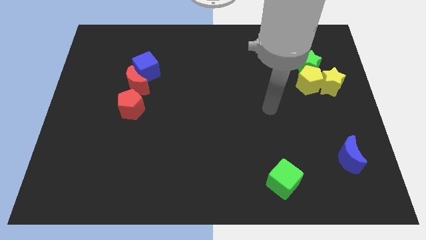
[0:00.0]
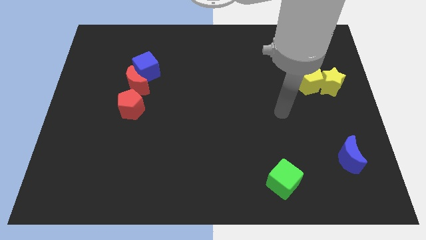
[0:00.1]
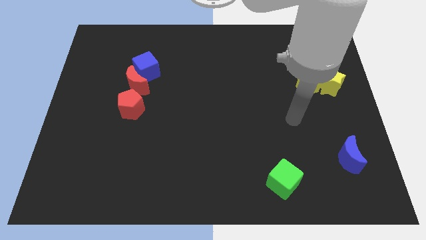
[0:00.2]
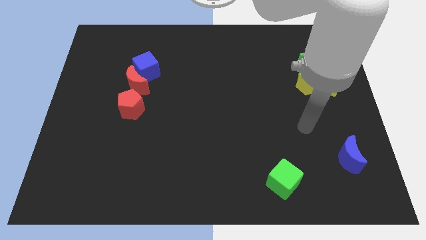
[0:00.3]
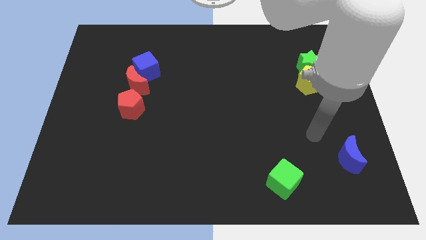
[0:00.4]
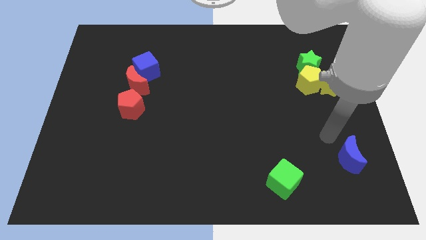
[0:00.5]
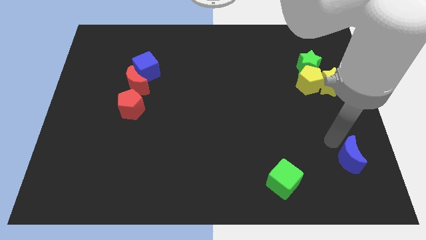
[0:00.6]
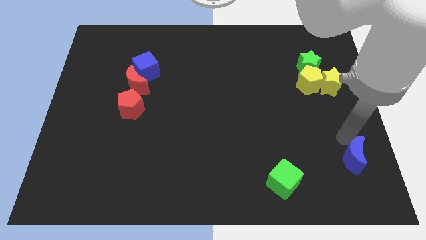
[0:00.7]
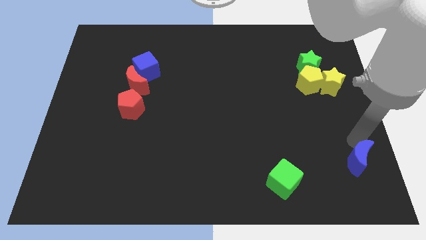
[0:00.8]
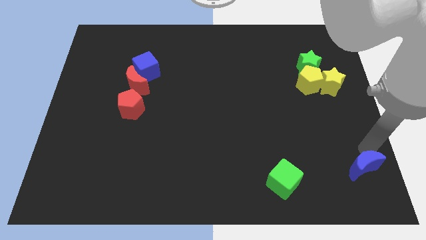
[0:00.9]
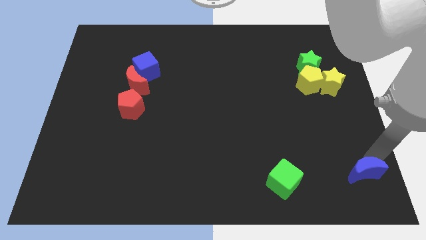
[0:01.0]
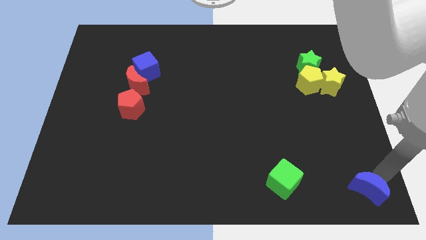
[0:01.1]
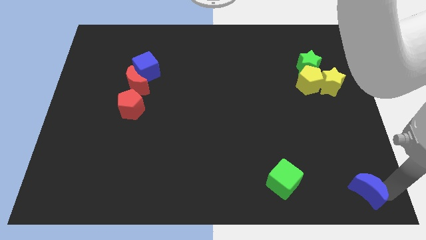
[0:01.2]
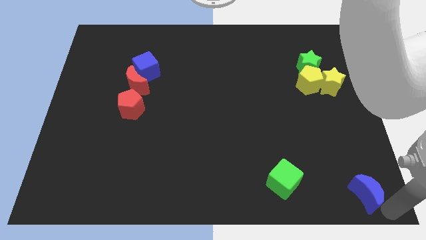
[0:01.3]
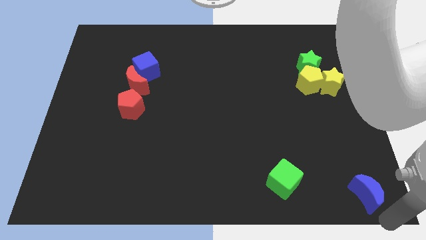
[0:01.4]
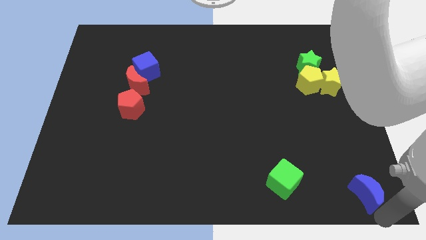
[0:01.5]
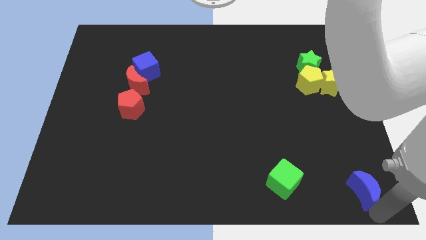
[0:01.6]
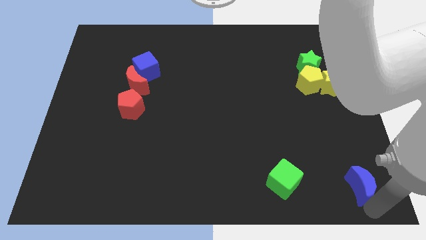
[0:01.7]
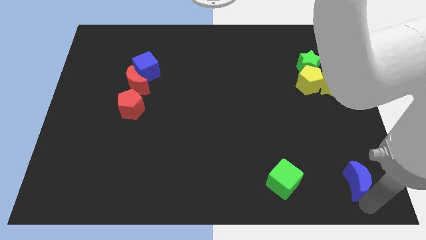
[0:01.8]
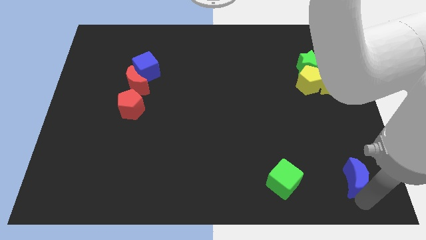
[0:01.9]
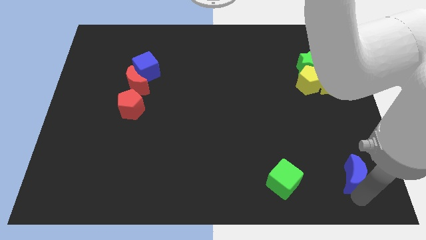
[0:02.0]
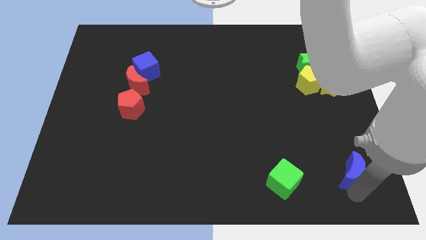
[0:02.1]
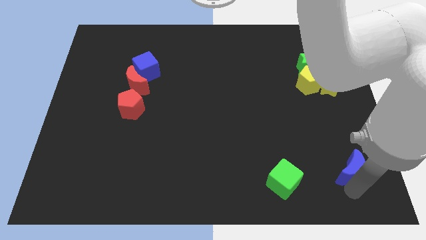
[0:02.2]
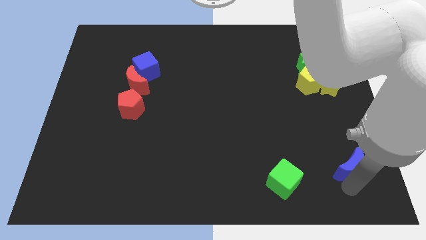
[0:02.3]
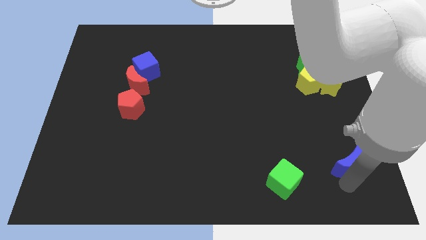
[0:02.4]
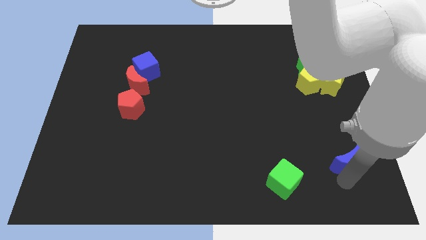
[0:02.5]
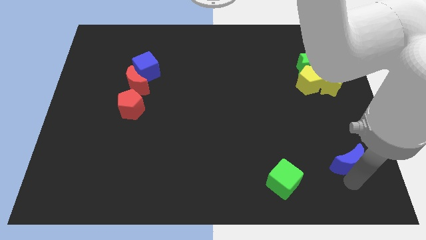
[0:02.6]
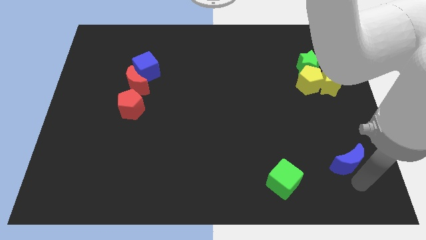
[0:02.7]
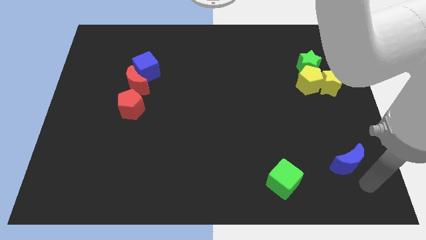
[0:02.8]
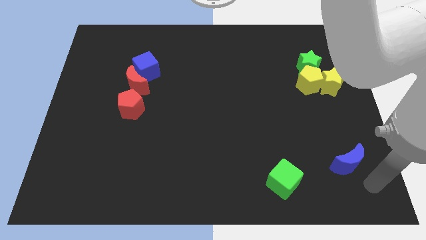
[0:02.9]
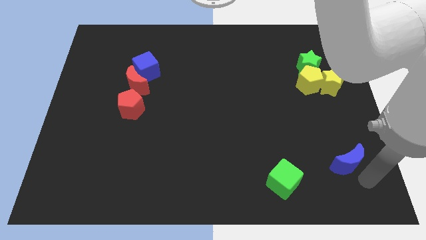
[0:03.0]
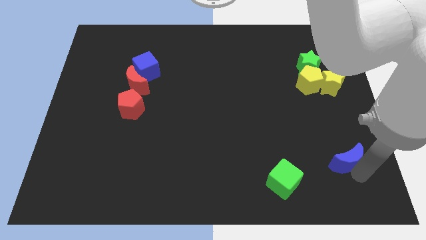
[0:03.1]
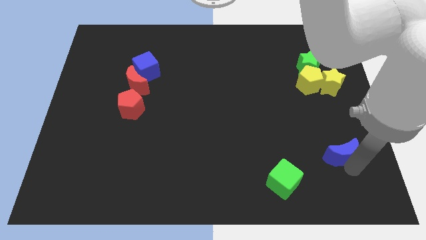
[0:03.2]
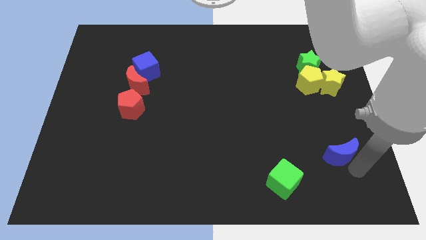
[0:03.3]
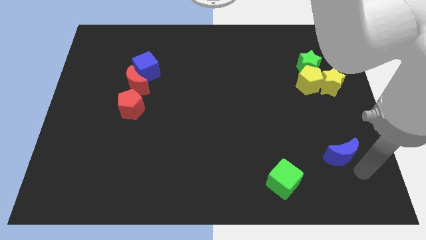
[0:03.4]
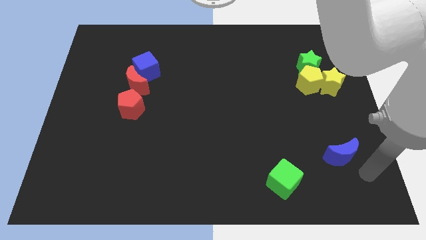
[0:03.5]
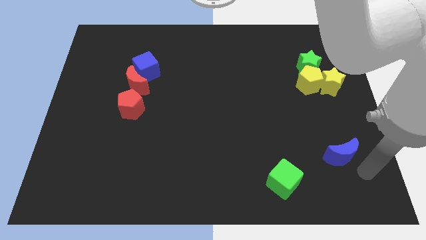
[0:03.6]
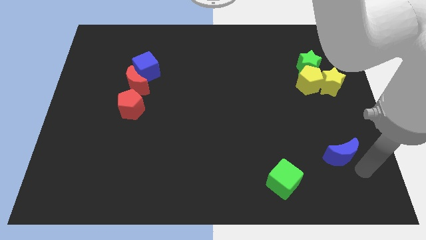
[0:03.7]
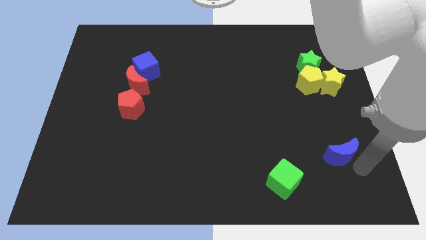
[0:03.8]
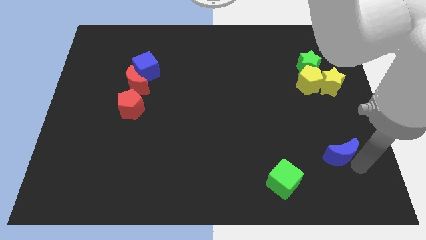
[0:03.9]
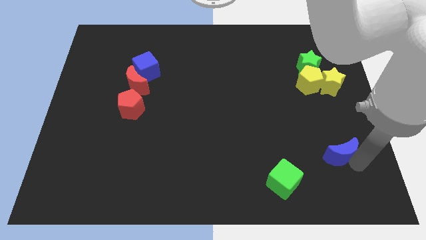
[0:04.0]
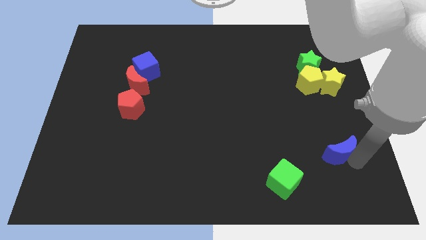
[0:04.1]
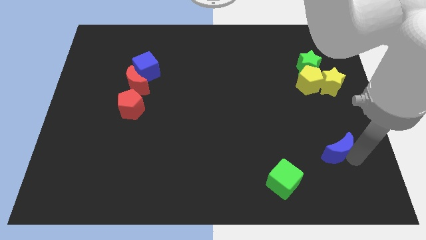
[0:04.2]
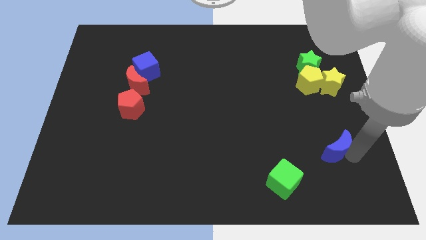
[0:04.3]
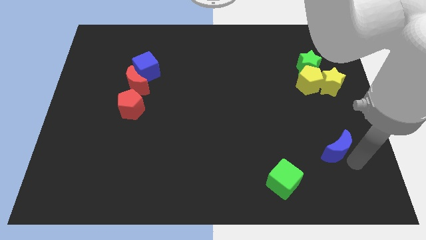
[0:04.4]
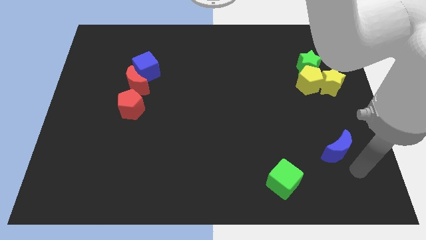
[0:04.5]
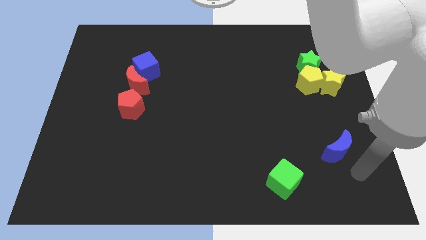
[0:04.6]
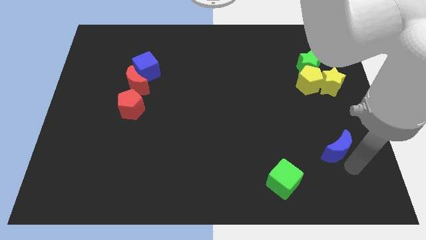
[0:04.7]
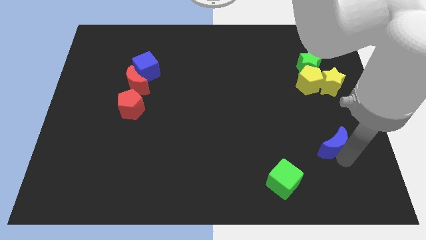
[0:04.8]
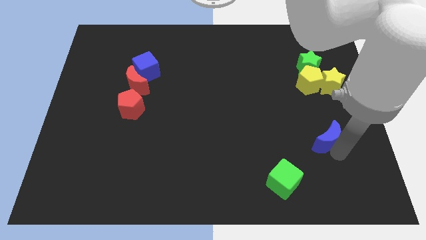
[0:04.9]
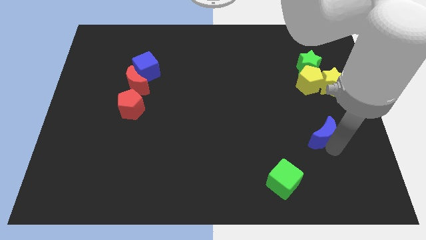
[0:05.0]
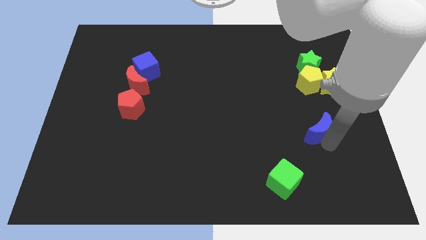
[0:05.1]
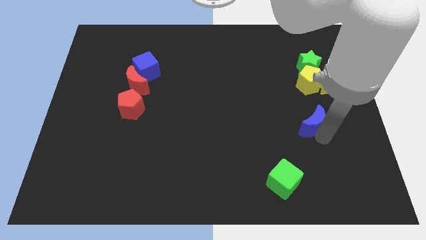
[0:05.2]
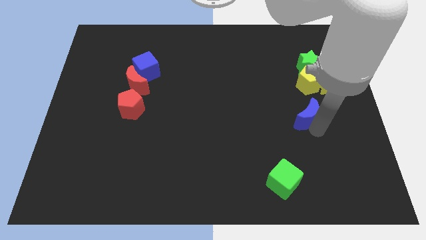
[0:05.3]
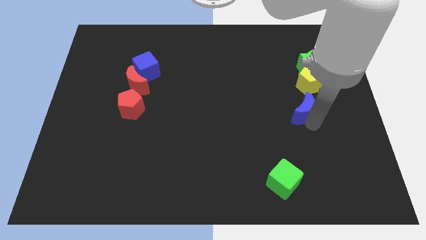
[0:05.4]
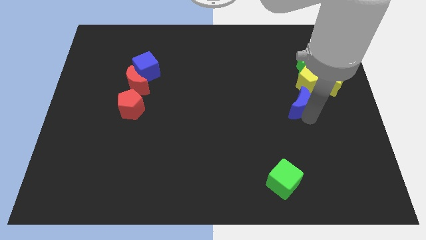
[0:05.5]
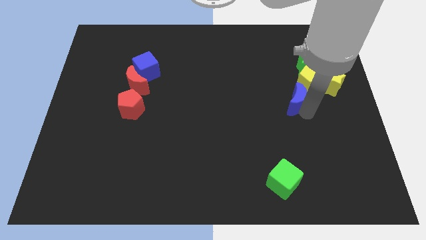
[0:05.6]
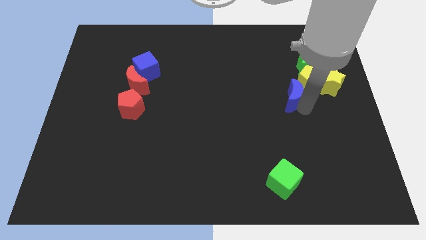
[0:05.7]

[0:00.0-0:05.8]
slide the blue moon to the left side of the yellow pentagon

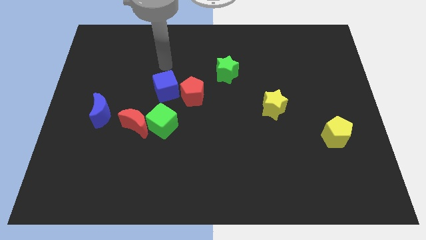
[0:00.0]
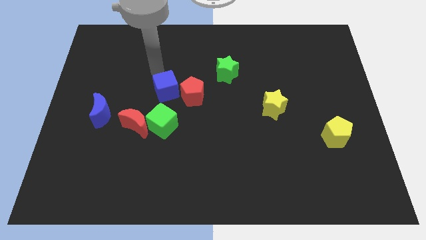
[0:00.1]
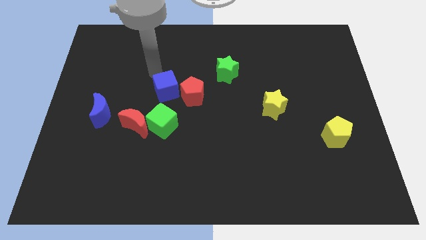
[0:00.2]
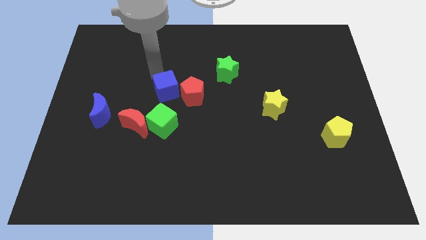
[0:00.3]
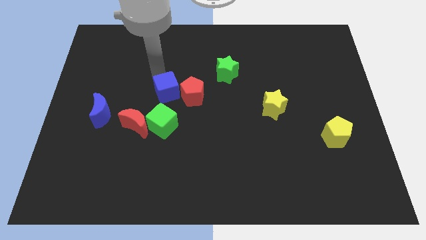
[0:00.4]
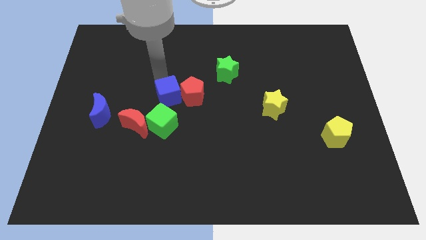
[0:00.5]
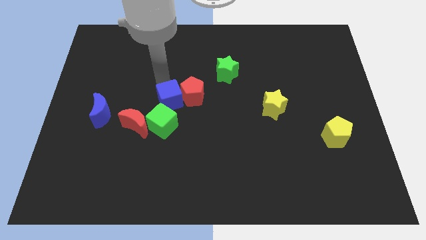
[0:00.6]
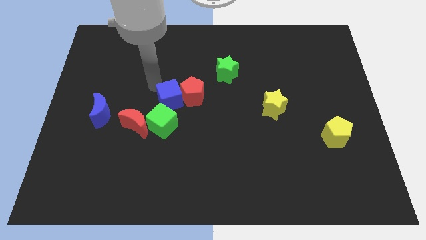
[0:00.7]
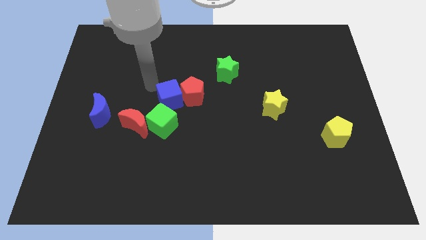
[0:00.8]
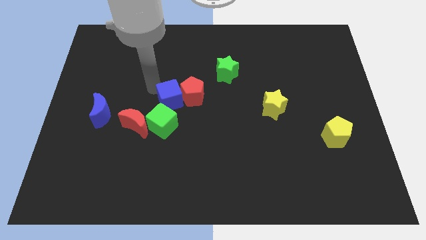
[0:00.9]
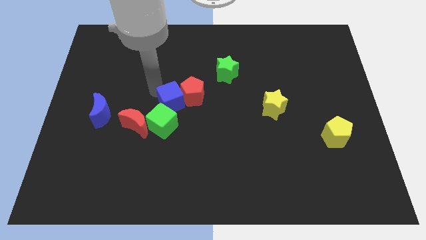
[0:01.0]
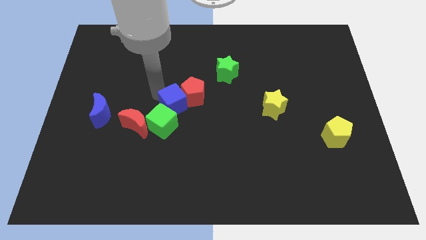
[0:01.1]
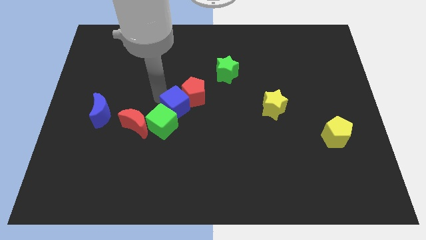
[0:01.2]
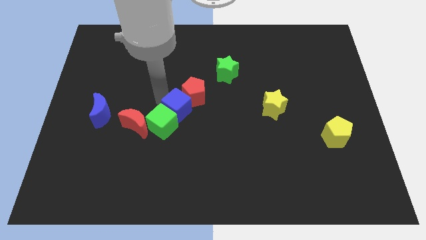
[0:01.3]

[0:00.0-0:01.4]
push the blue cube just right of the green cube
